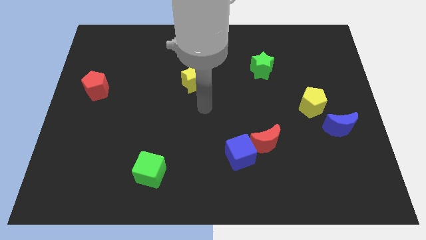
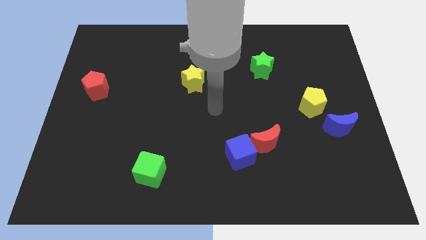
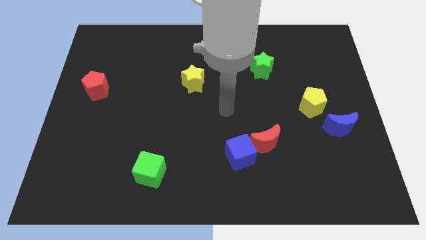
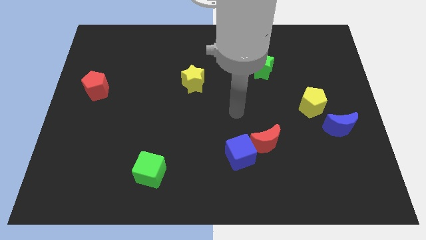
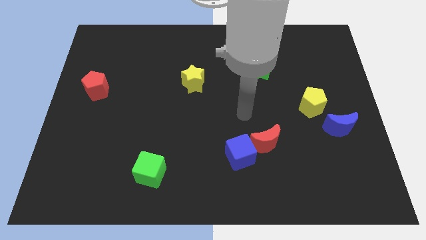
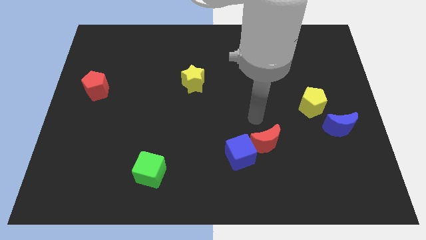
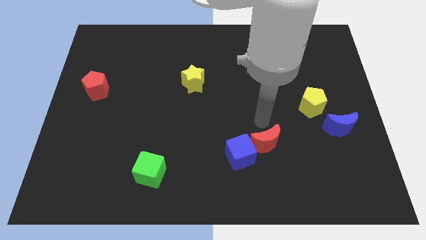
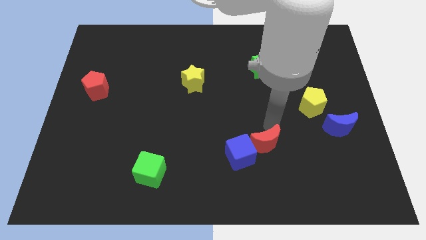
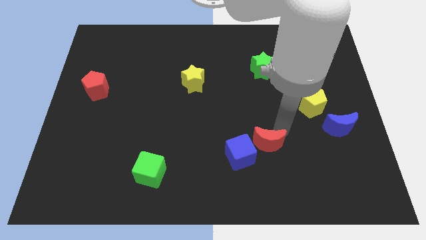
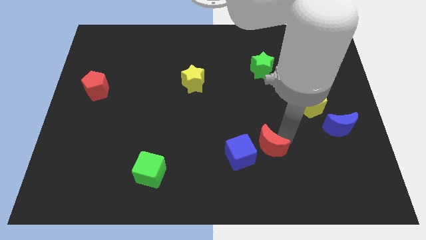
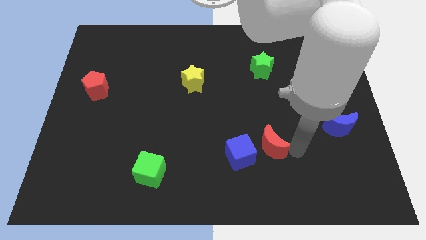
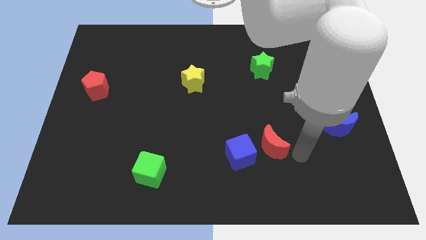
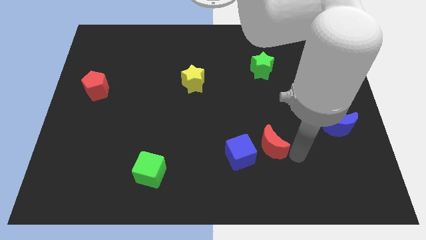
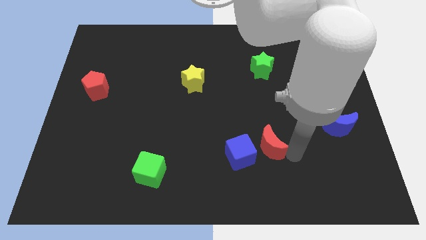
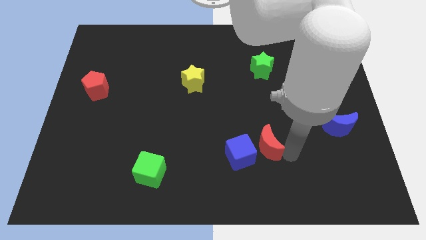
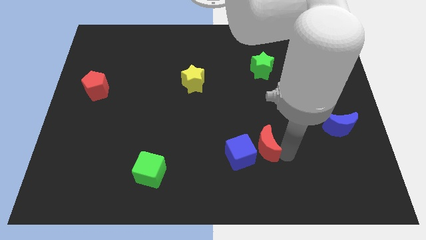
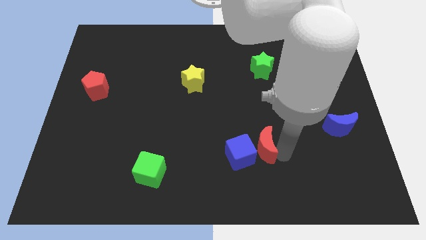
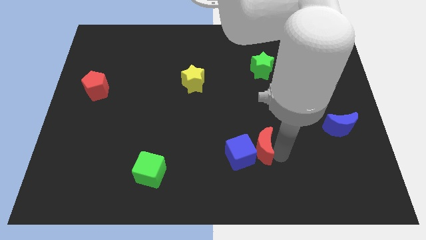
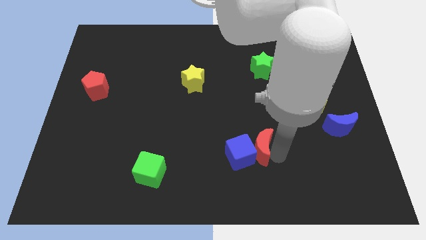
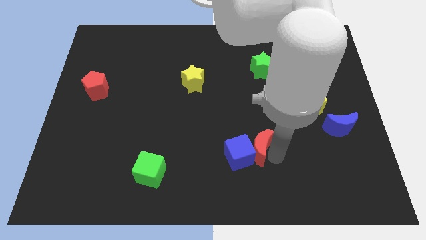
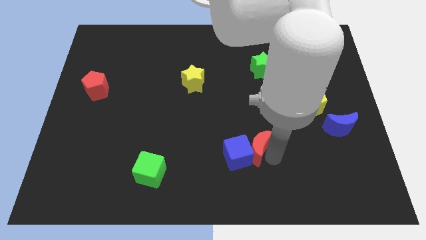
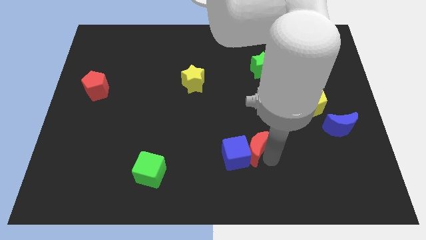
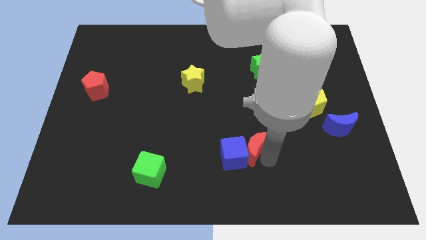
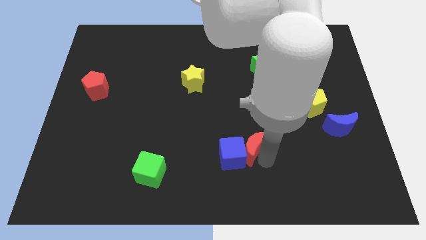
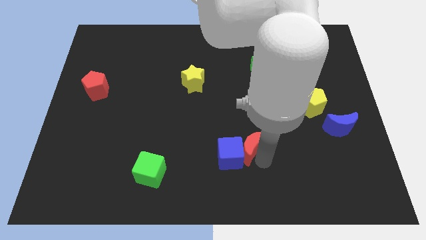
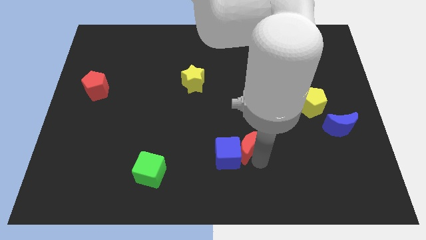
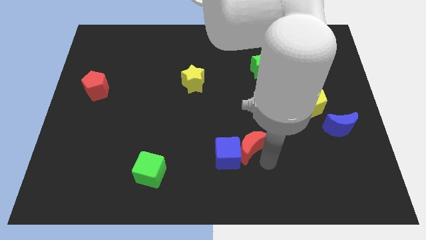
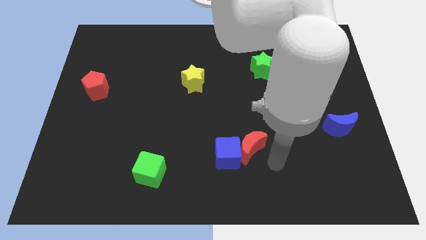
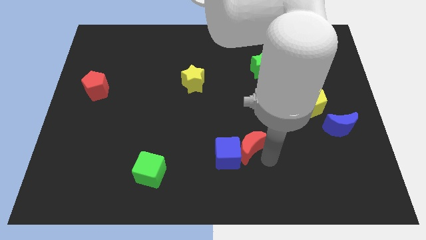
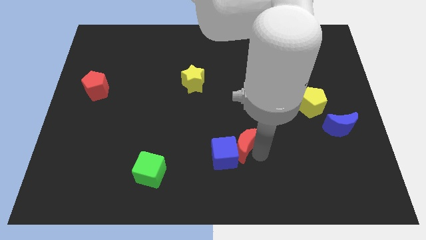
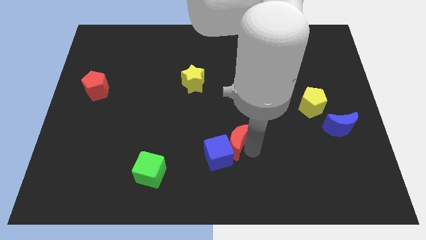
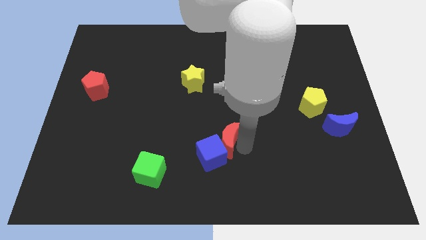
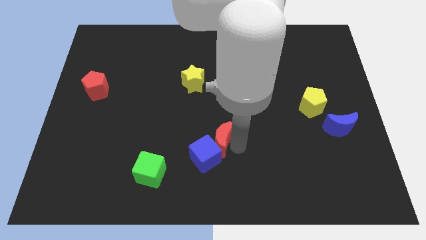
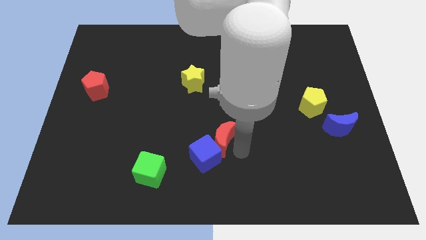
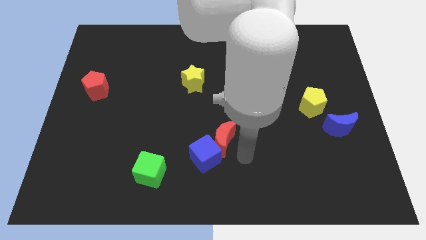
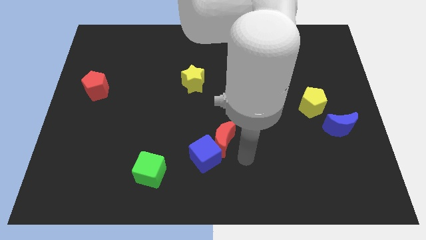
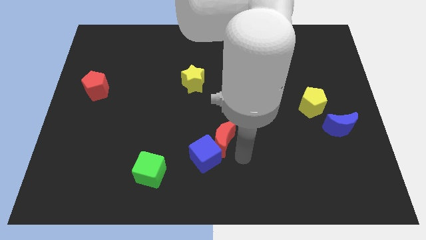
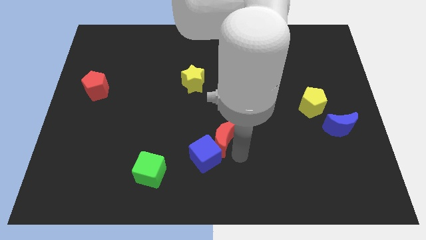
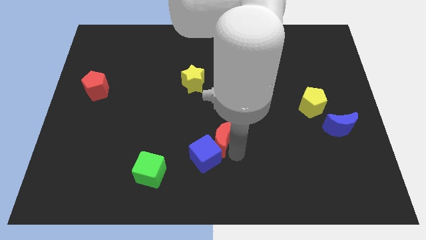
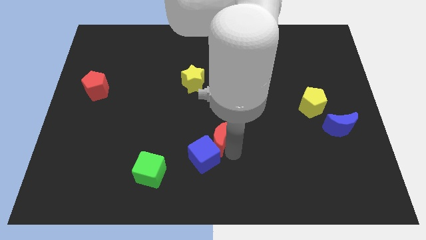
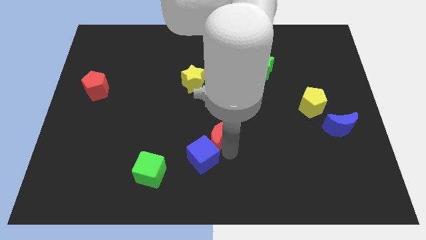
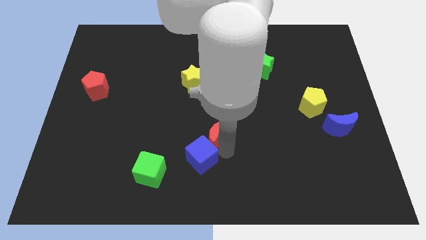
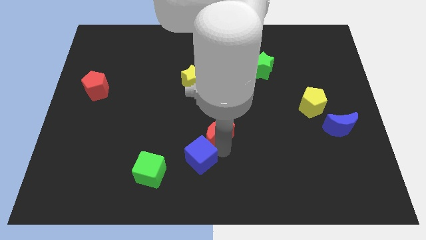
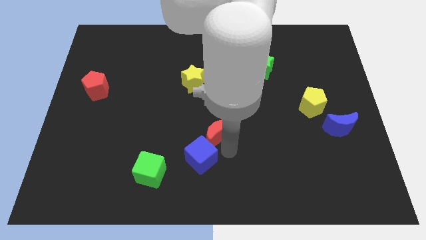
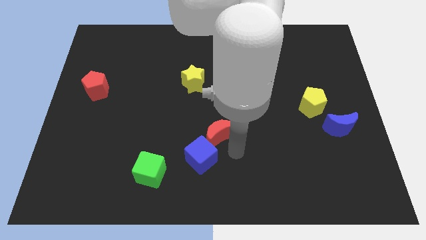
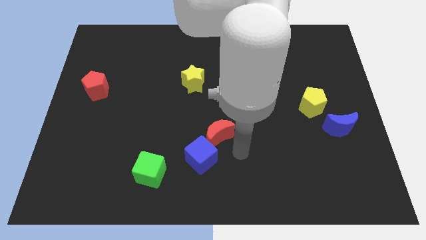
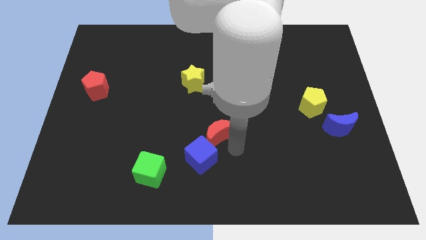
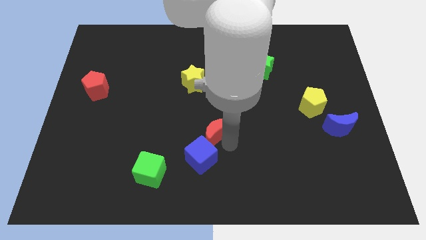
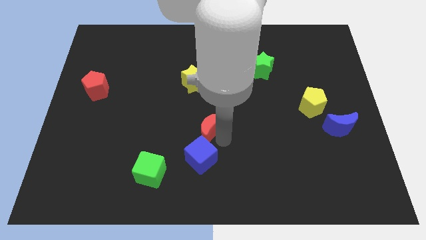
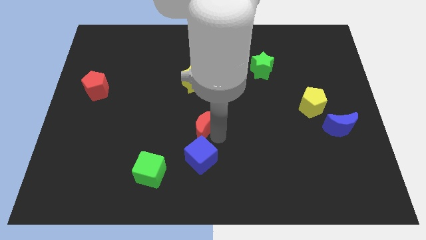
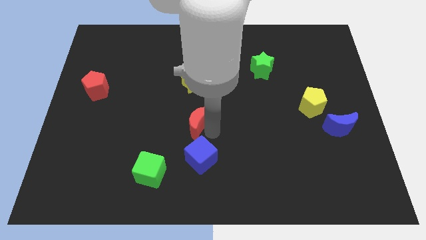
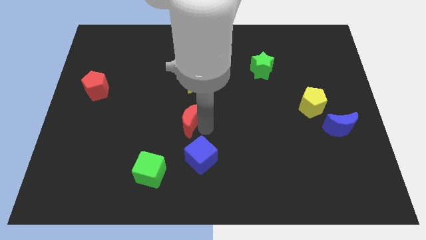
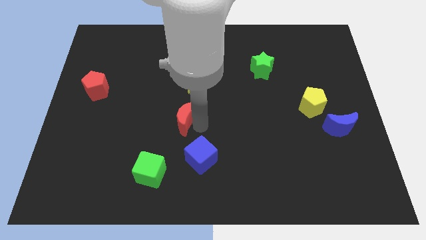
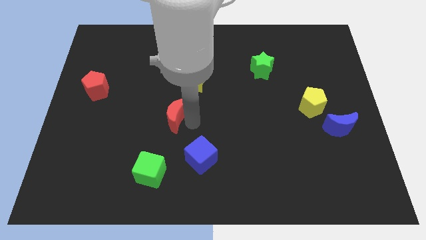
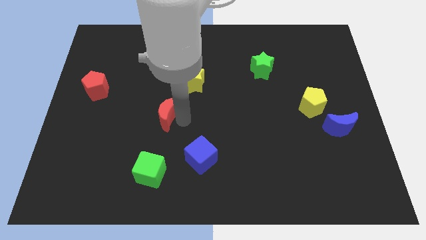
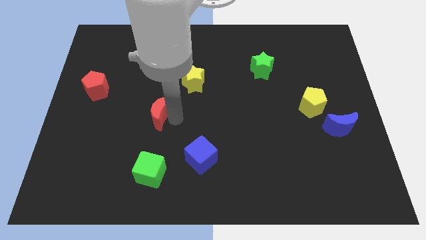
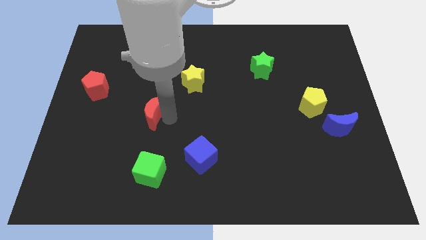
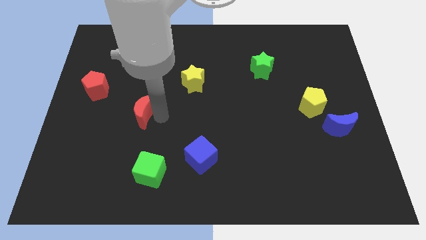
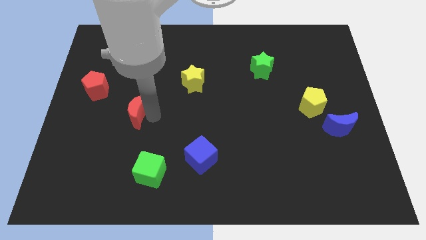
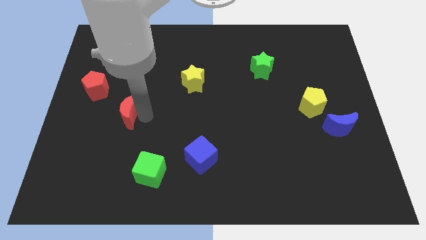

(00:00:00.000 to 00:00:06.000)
slide the red moon to the bottom right side of the red pentagon
